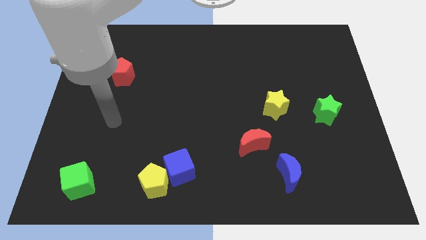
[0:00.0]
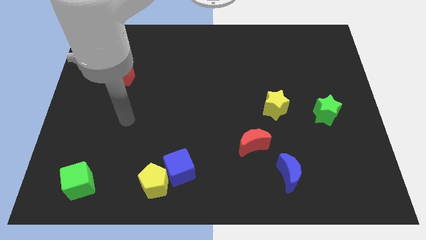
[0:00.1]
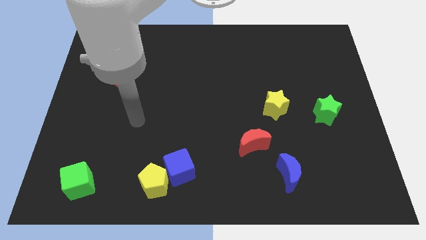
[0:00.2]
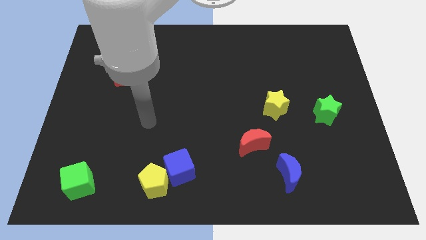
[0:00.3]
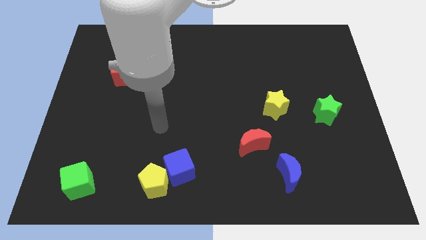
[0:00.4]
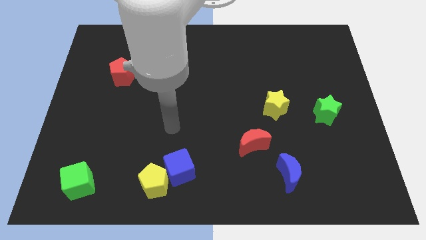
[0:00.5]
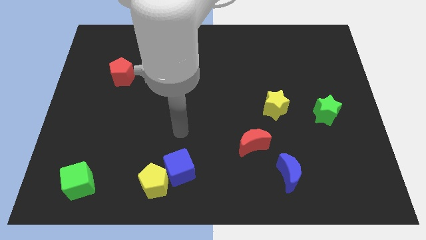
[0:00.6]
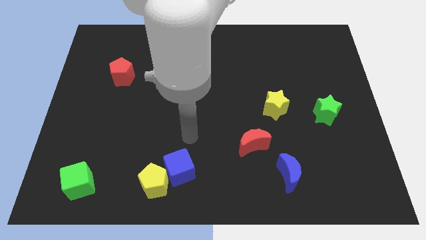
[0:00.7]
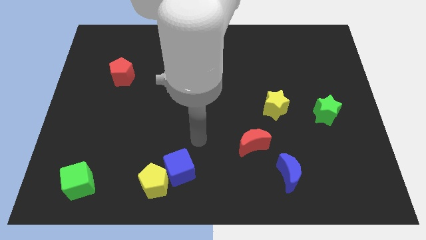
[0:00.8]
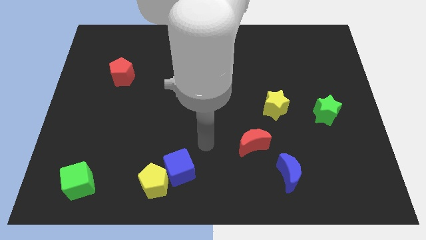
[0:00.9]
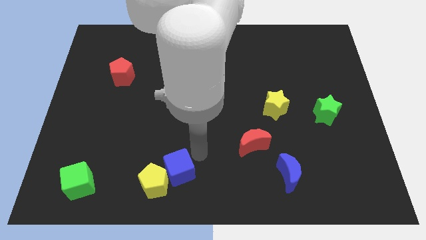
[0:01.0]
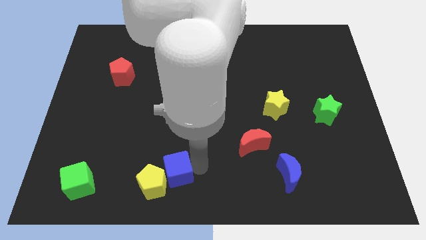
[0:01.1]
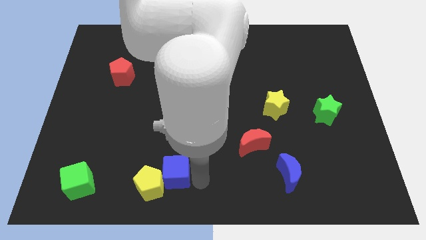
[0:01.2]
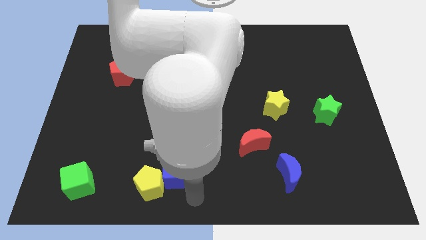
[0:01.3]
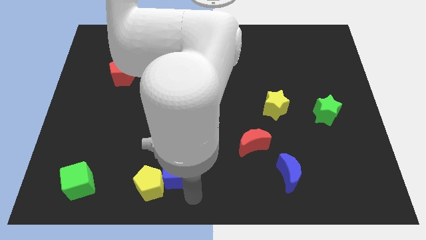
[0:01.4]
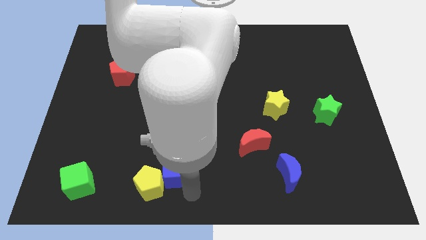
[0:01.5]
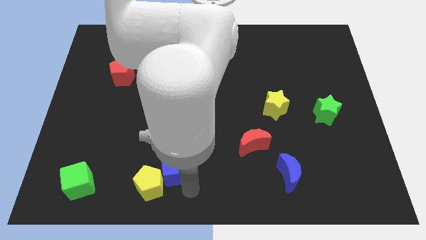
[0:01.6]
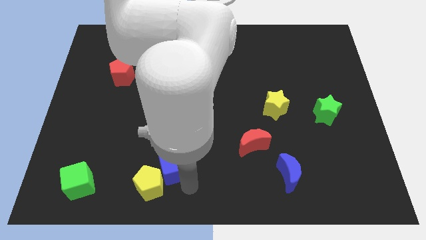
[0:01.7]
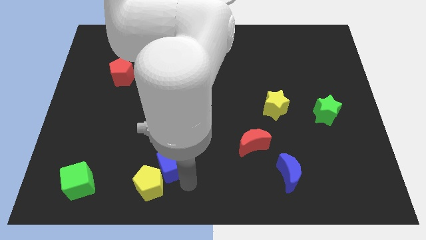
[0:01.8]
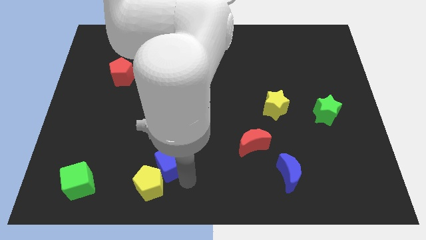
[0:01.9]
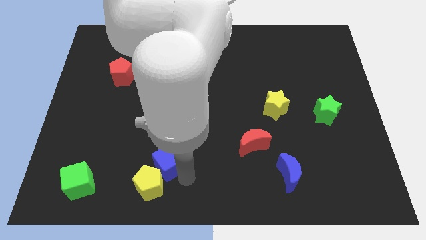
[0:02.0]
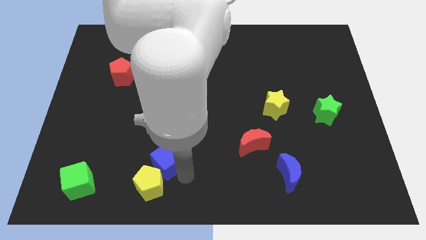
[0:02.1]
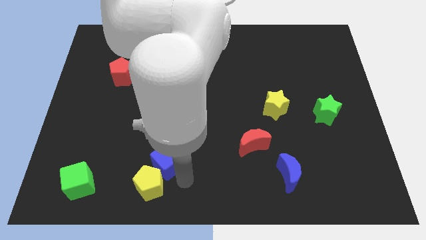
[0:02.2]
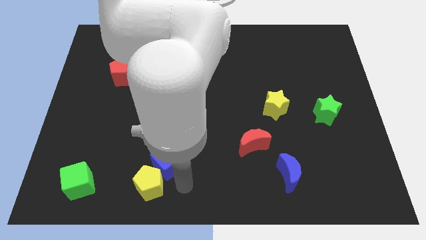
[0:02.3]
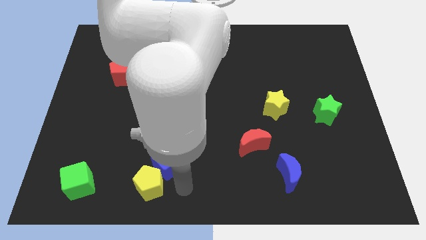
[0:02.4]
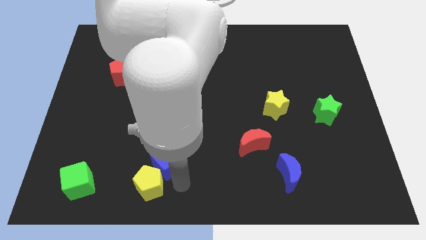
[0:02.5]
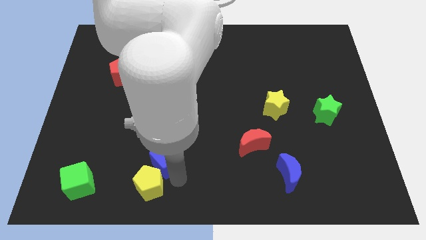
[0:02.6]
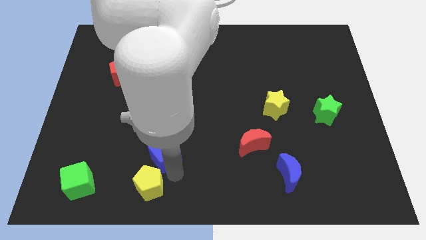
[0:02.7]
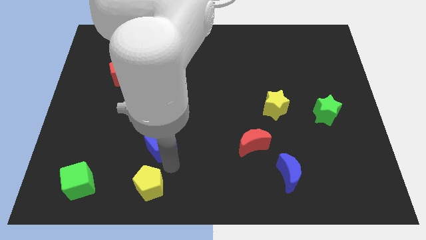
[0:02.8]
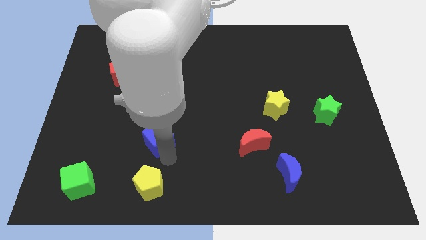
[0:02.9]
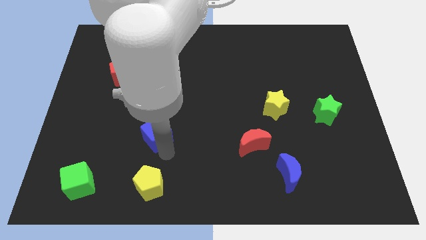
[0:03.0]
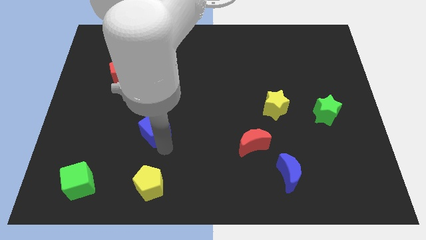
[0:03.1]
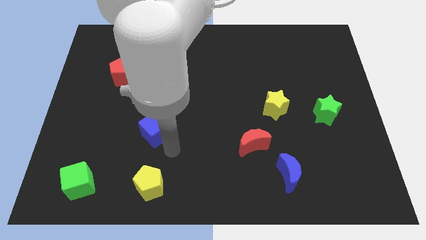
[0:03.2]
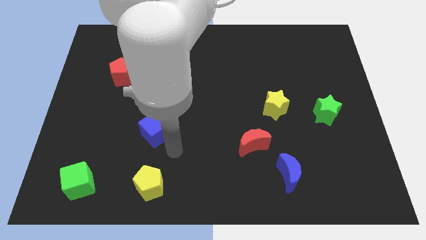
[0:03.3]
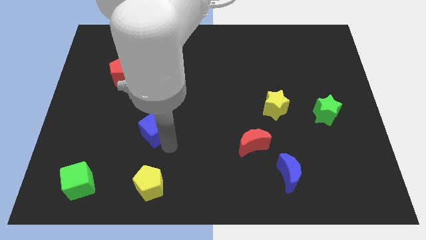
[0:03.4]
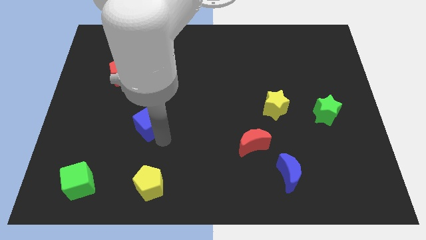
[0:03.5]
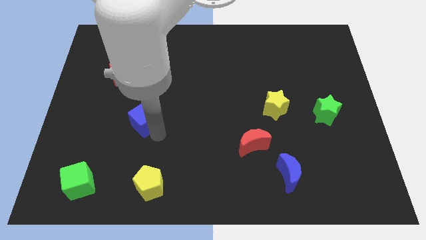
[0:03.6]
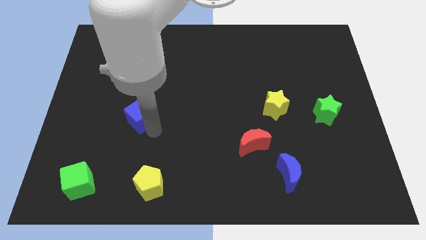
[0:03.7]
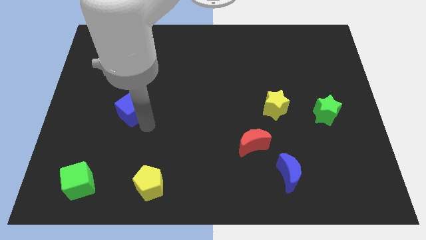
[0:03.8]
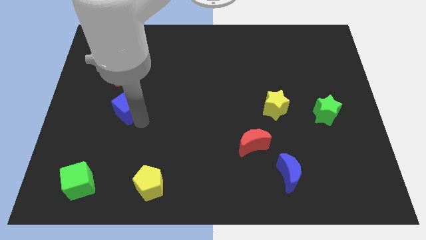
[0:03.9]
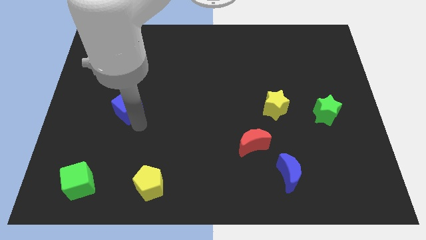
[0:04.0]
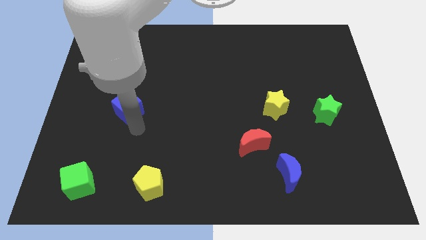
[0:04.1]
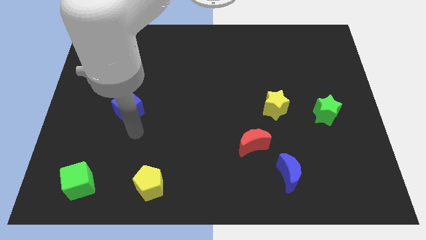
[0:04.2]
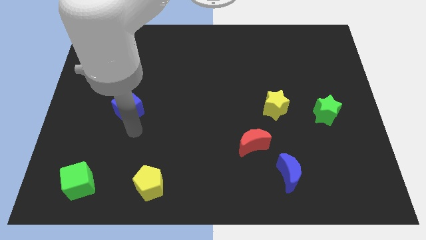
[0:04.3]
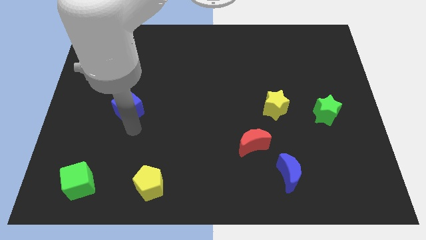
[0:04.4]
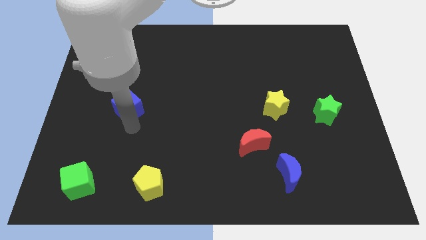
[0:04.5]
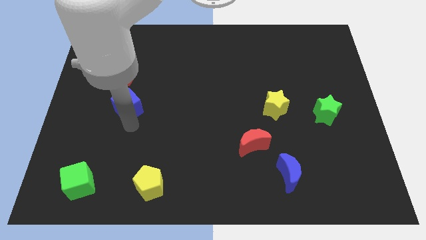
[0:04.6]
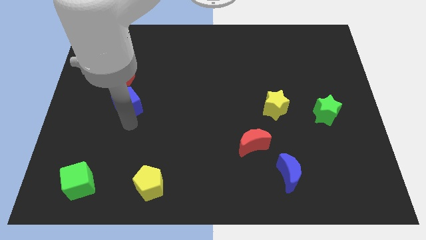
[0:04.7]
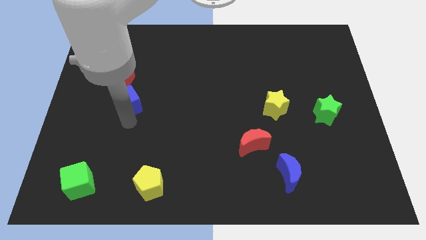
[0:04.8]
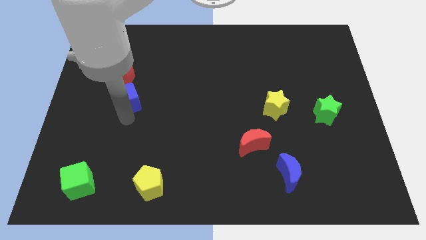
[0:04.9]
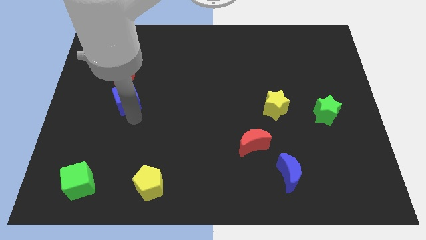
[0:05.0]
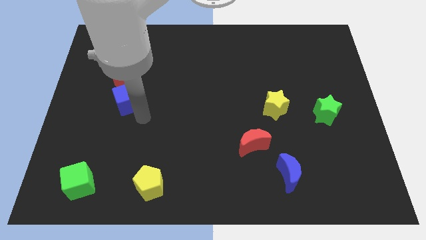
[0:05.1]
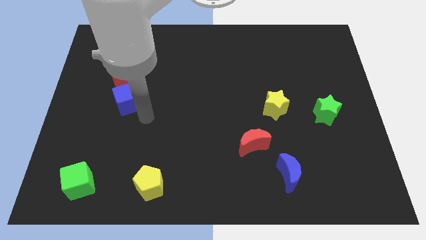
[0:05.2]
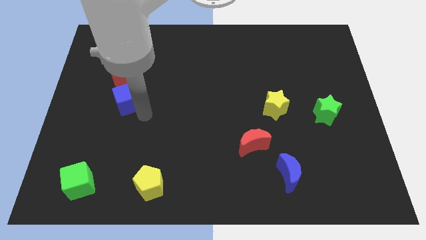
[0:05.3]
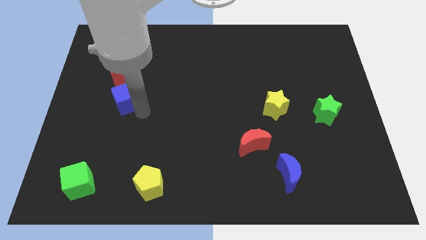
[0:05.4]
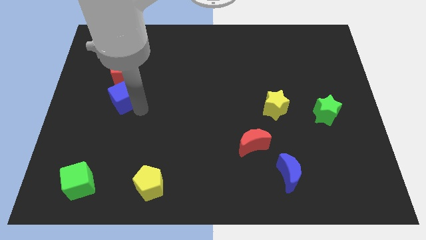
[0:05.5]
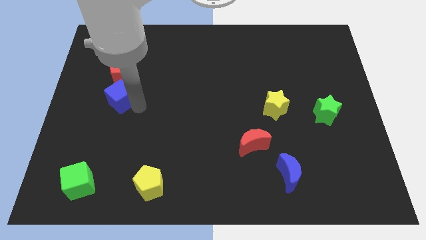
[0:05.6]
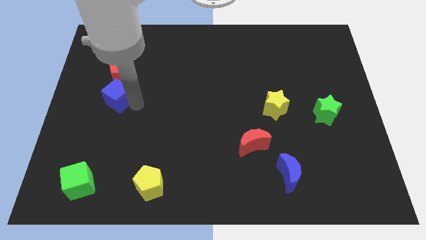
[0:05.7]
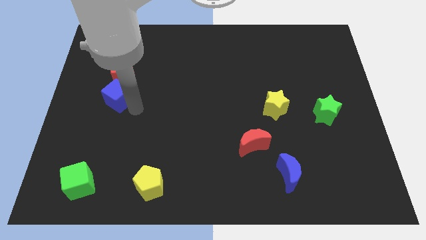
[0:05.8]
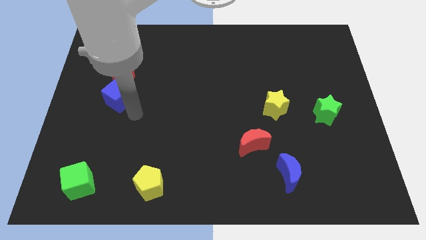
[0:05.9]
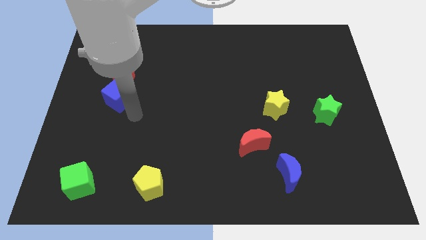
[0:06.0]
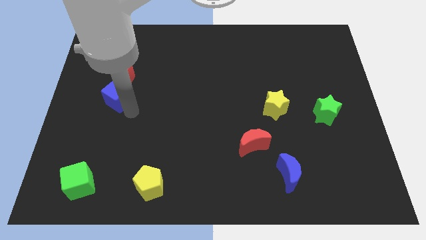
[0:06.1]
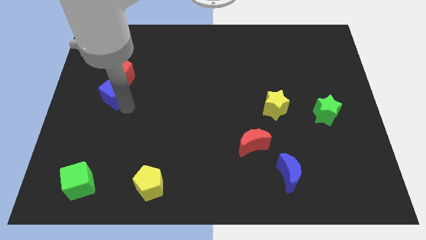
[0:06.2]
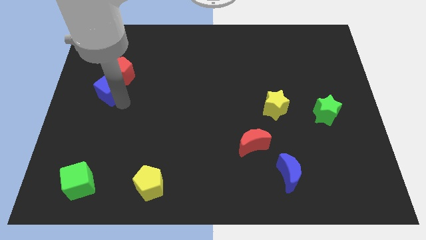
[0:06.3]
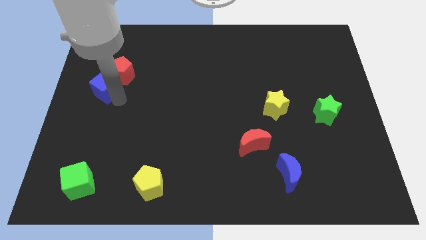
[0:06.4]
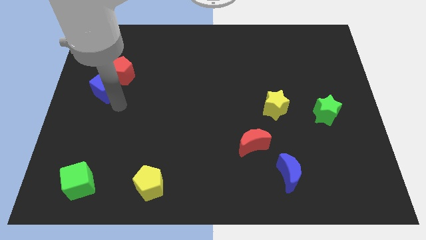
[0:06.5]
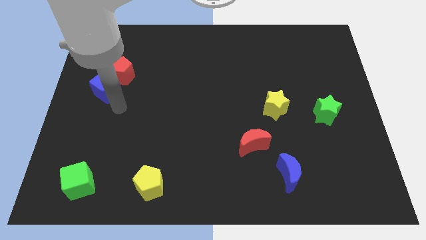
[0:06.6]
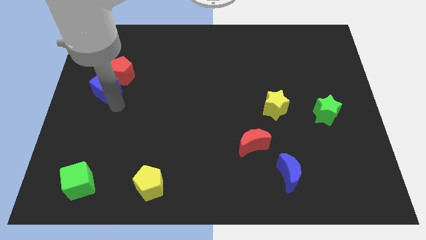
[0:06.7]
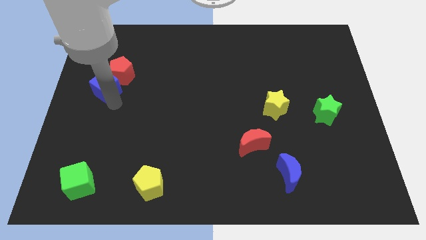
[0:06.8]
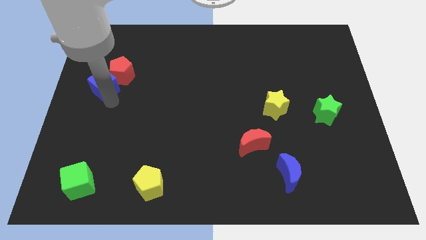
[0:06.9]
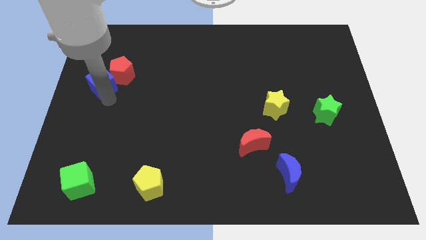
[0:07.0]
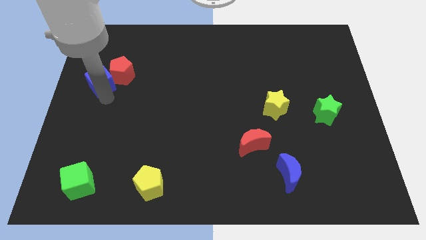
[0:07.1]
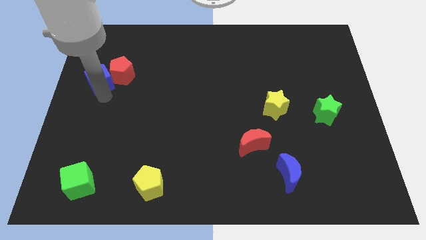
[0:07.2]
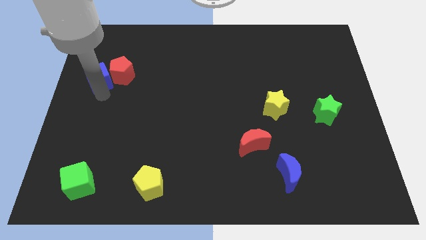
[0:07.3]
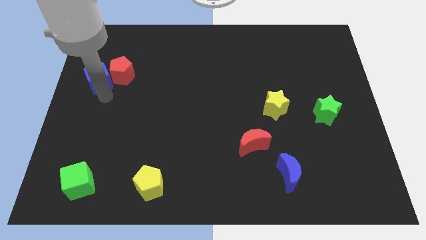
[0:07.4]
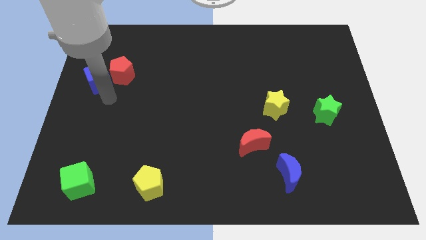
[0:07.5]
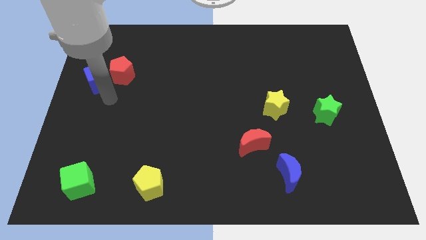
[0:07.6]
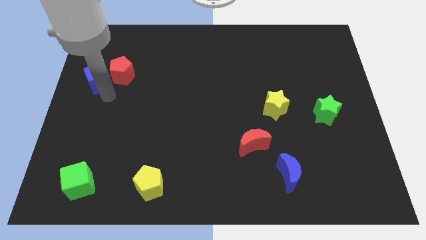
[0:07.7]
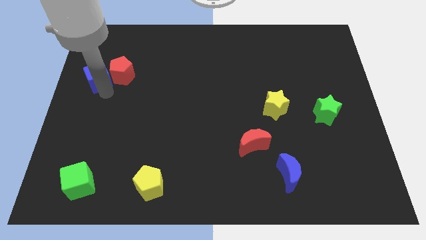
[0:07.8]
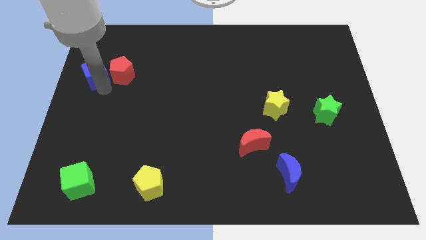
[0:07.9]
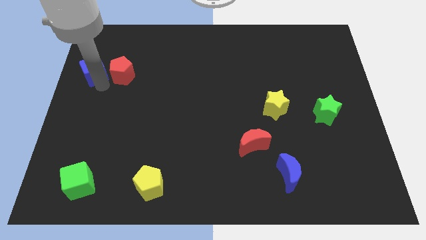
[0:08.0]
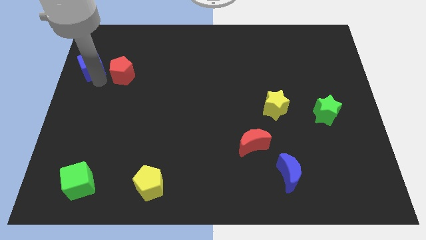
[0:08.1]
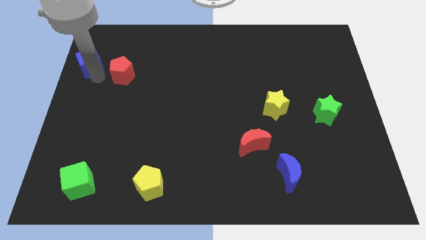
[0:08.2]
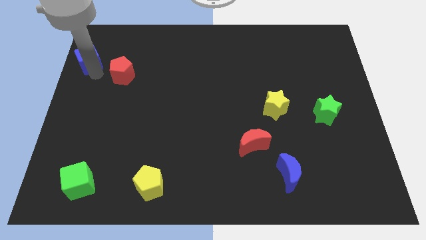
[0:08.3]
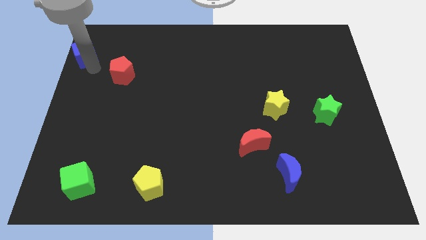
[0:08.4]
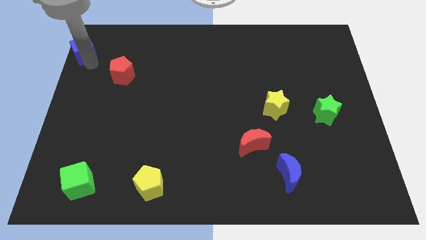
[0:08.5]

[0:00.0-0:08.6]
move the blue cube to the upper left corner
